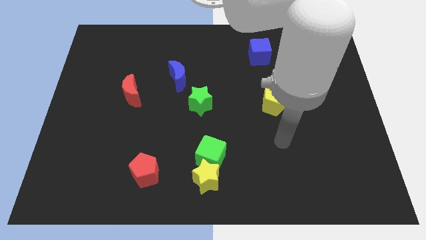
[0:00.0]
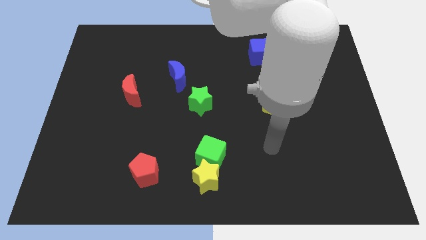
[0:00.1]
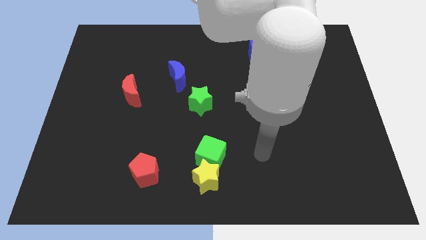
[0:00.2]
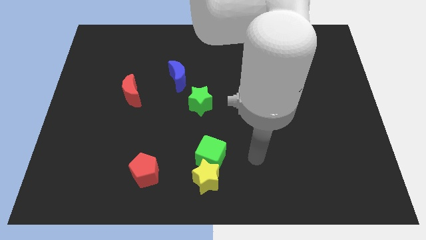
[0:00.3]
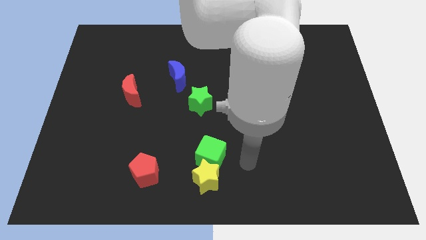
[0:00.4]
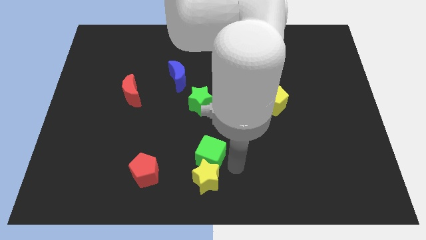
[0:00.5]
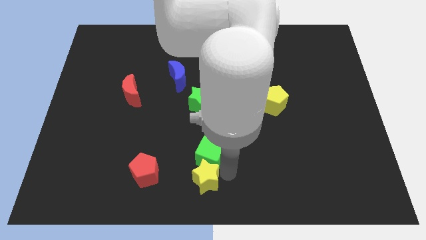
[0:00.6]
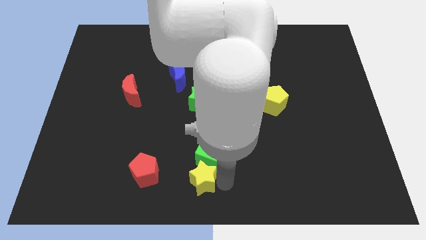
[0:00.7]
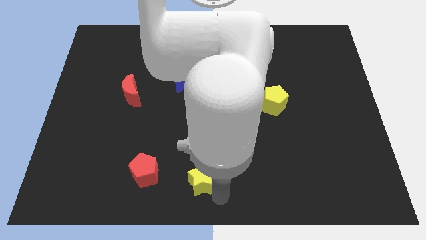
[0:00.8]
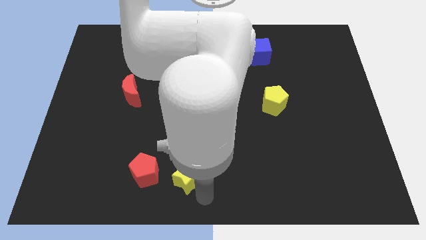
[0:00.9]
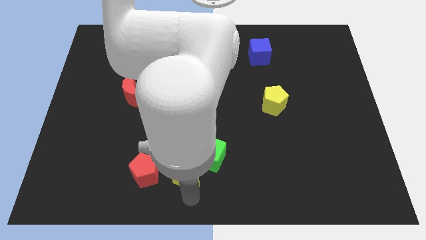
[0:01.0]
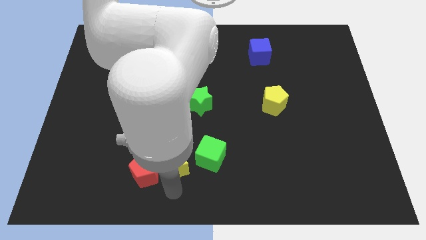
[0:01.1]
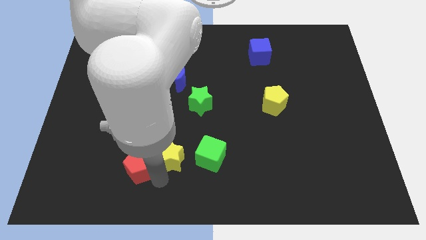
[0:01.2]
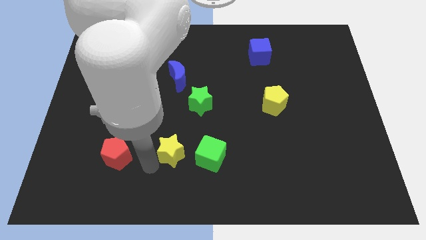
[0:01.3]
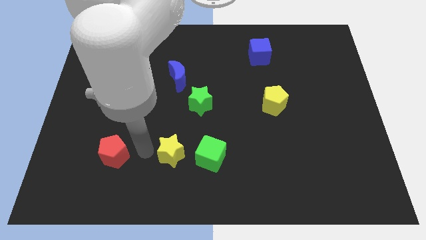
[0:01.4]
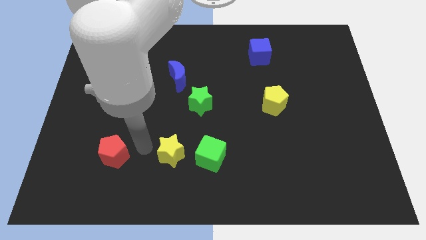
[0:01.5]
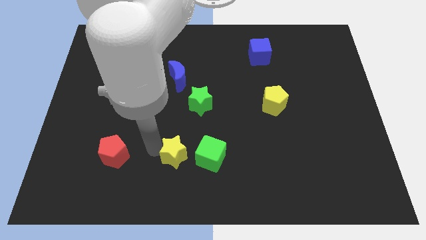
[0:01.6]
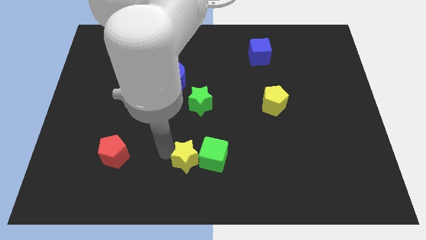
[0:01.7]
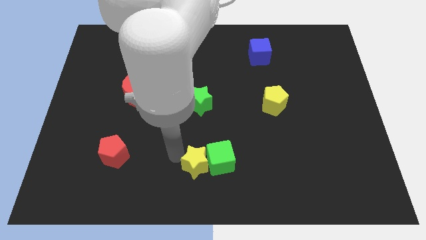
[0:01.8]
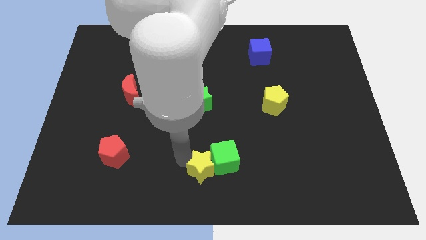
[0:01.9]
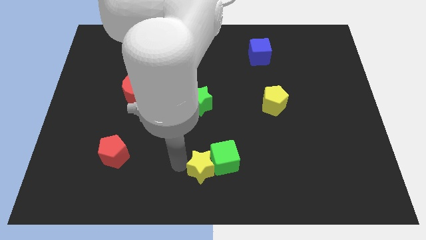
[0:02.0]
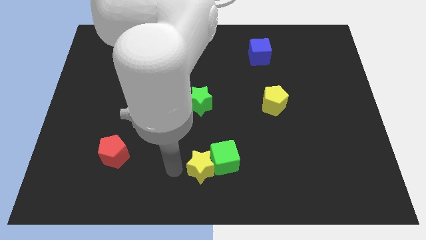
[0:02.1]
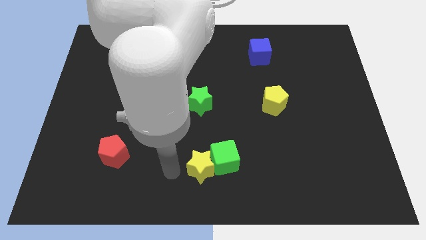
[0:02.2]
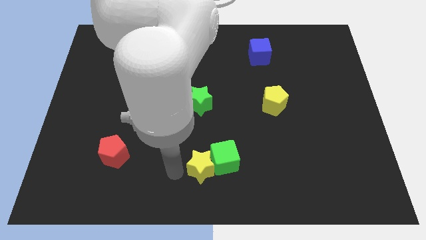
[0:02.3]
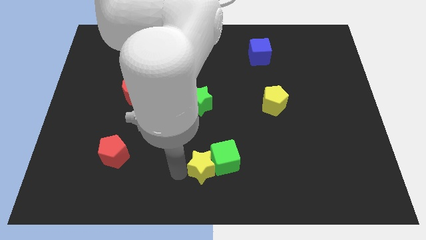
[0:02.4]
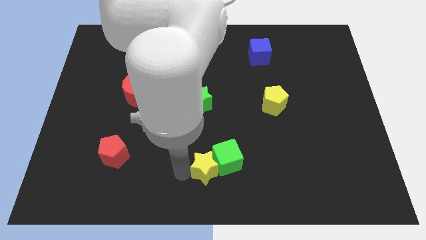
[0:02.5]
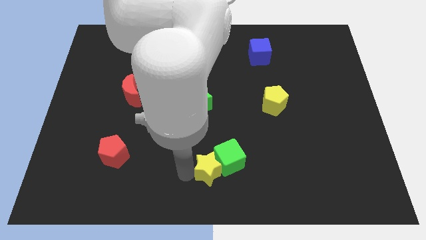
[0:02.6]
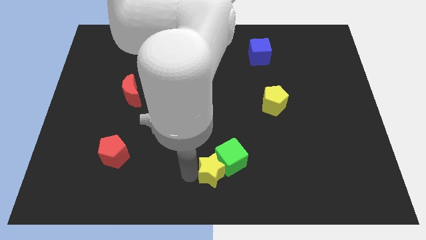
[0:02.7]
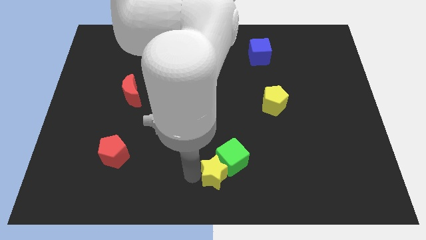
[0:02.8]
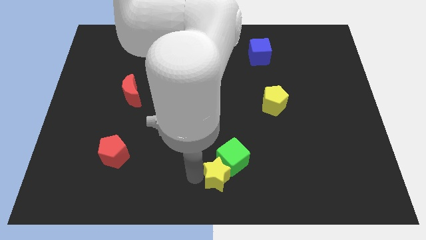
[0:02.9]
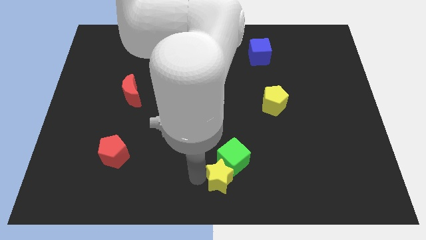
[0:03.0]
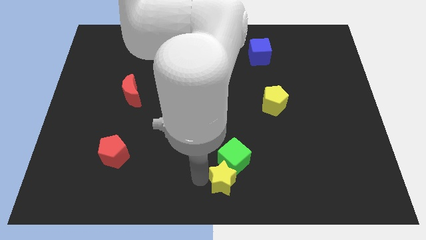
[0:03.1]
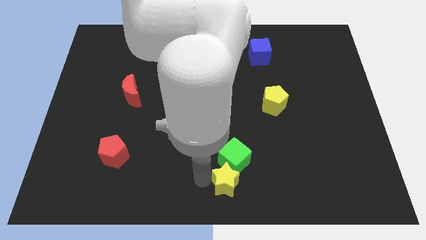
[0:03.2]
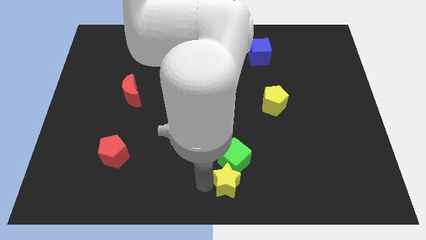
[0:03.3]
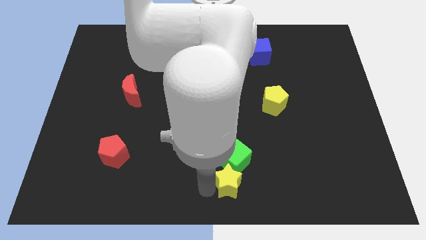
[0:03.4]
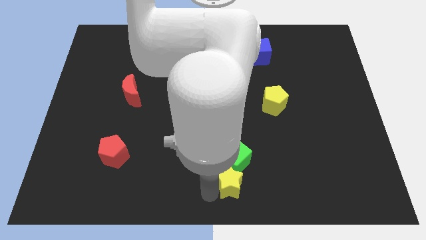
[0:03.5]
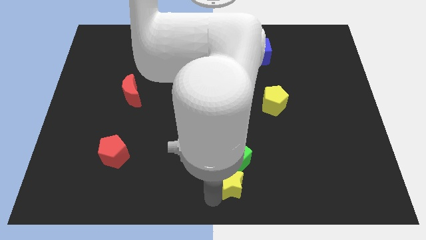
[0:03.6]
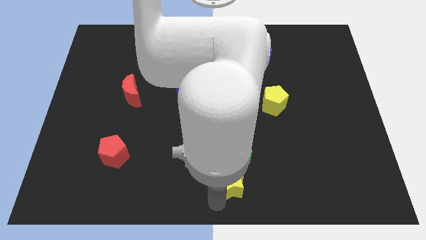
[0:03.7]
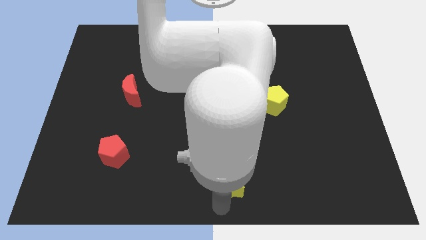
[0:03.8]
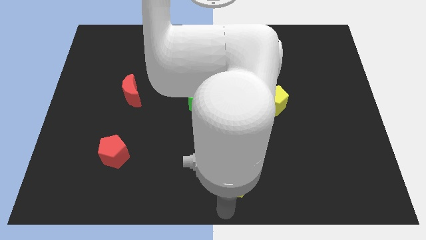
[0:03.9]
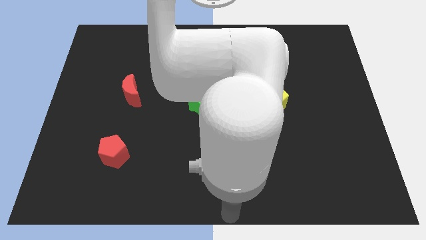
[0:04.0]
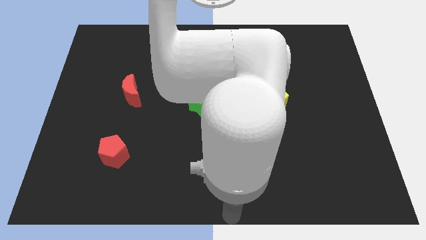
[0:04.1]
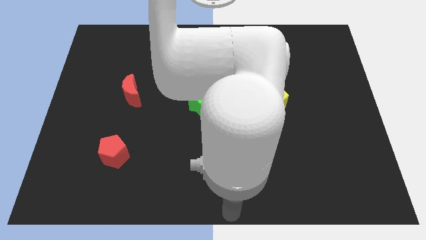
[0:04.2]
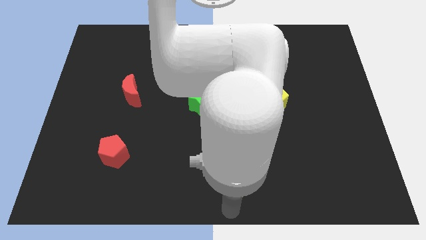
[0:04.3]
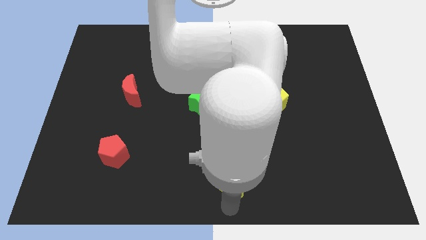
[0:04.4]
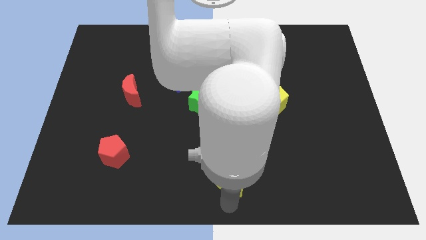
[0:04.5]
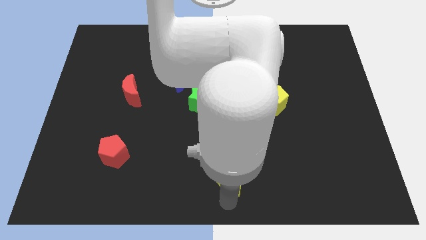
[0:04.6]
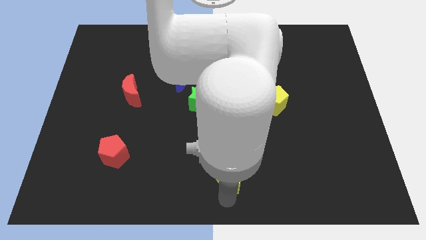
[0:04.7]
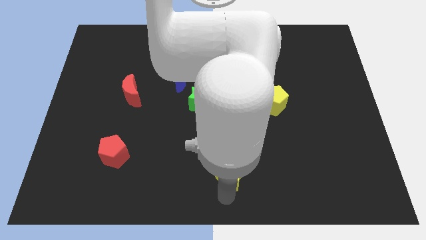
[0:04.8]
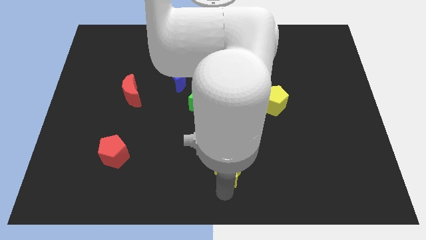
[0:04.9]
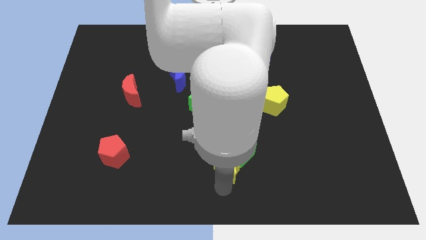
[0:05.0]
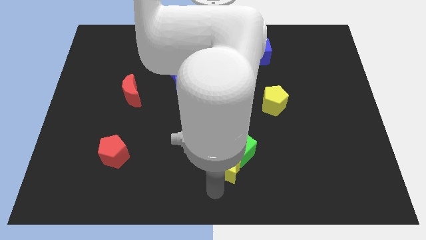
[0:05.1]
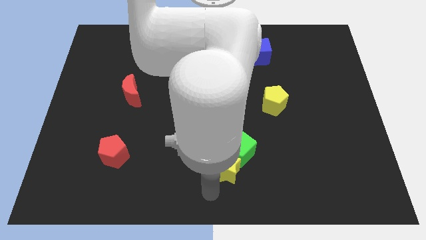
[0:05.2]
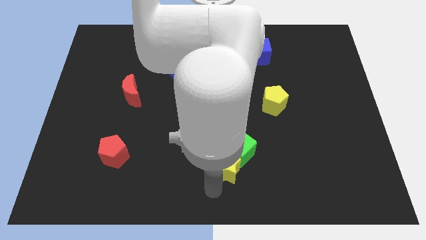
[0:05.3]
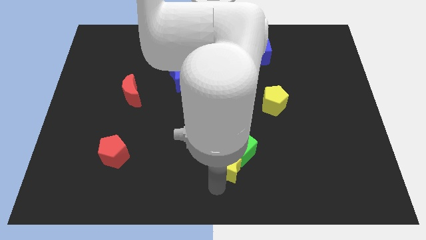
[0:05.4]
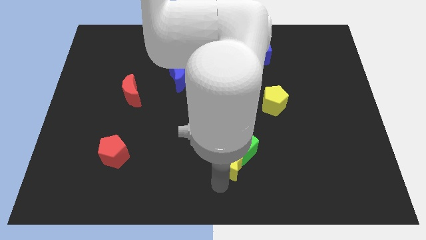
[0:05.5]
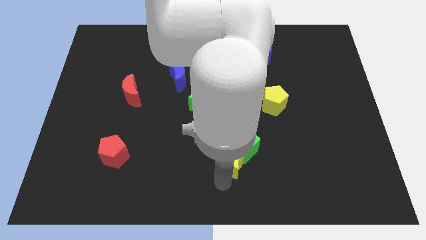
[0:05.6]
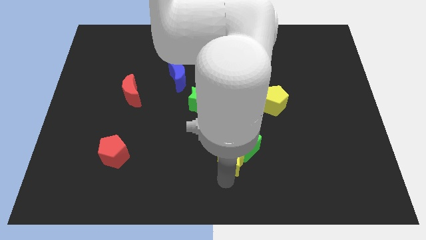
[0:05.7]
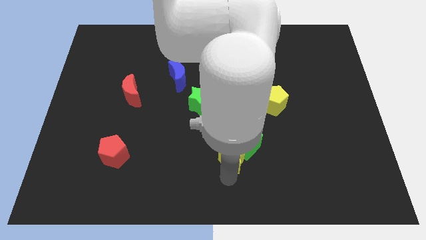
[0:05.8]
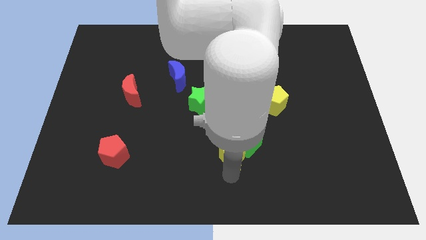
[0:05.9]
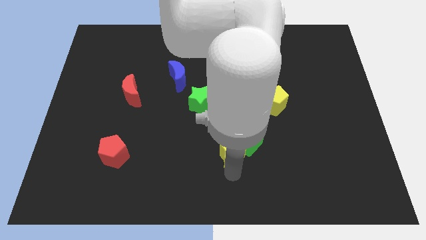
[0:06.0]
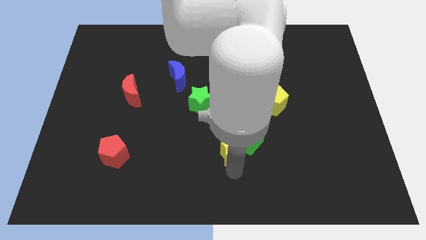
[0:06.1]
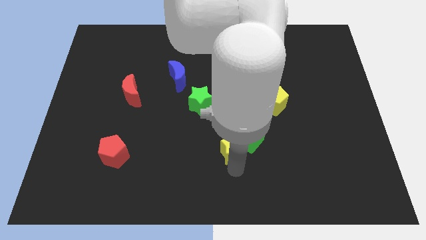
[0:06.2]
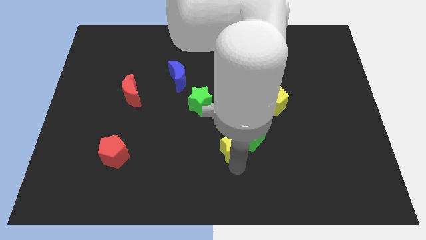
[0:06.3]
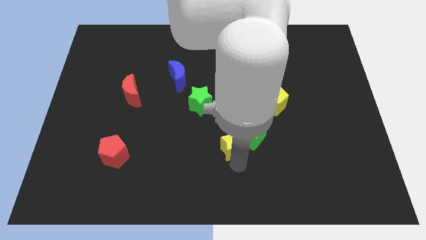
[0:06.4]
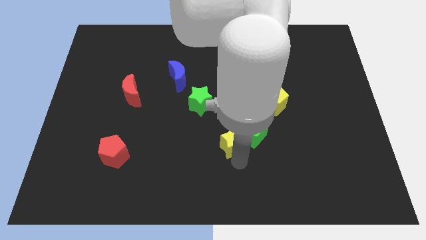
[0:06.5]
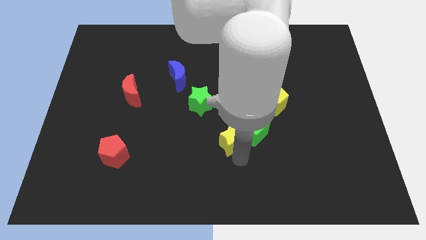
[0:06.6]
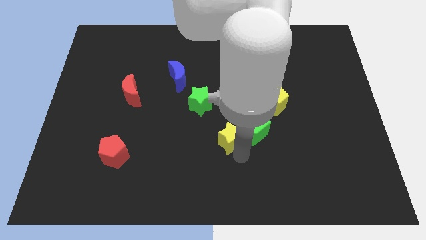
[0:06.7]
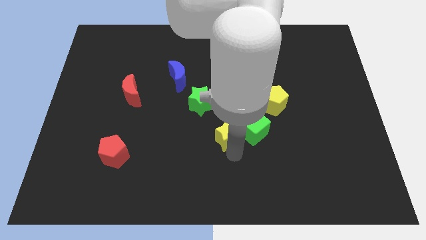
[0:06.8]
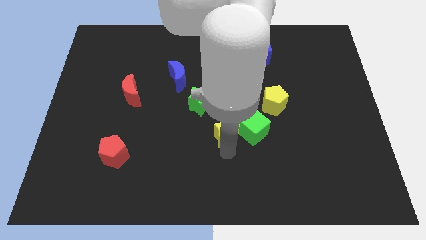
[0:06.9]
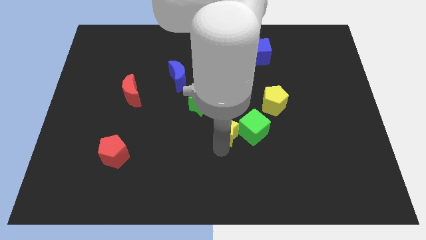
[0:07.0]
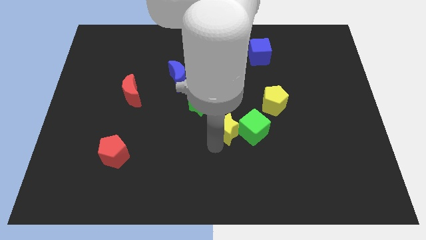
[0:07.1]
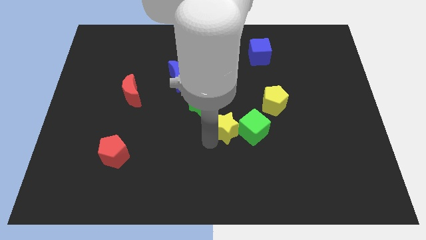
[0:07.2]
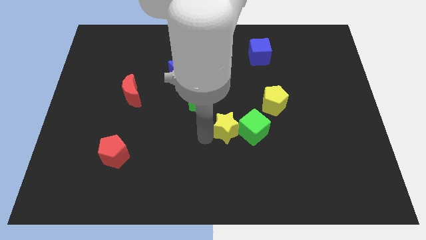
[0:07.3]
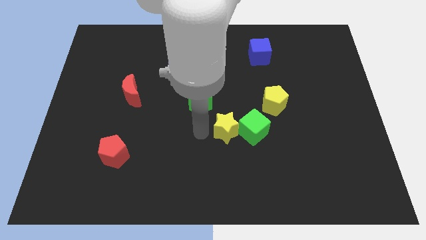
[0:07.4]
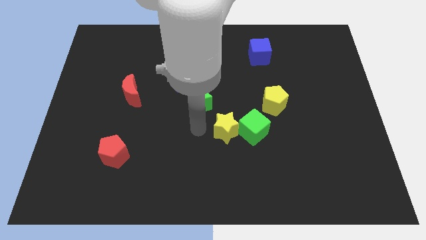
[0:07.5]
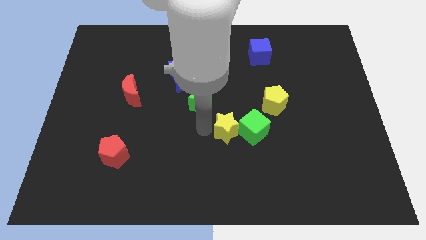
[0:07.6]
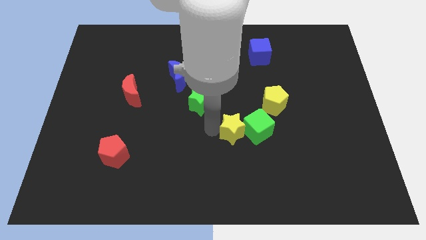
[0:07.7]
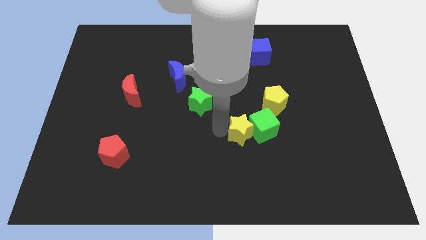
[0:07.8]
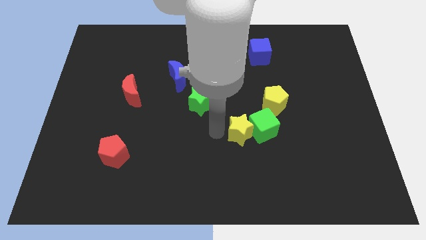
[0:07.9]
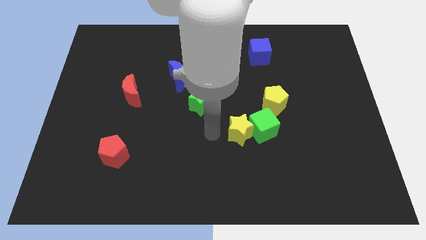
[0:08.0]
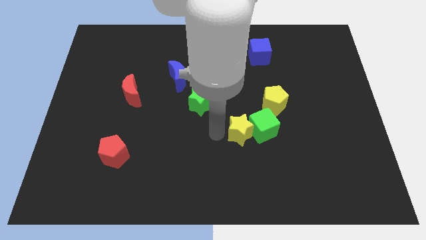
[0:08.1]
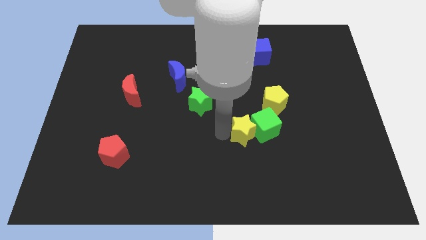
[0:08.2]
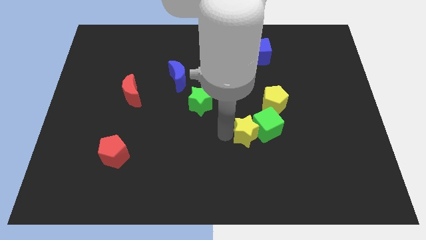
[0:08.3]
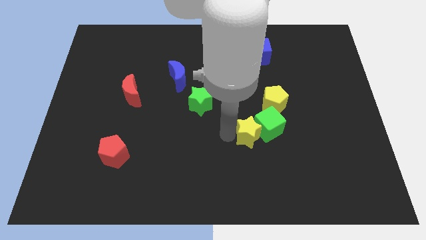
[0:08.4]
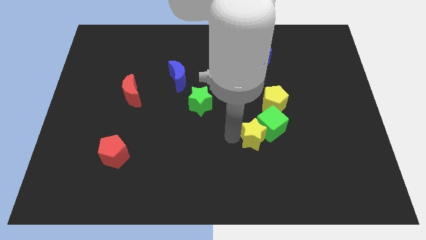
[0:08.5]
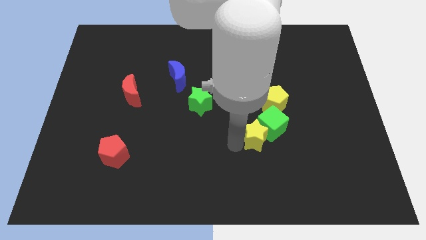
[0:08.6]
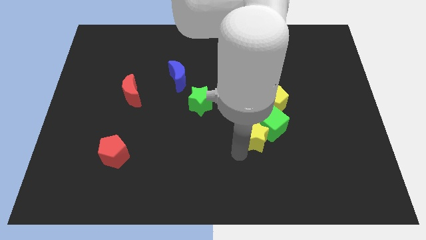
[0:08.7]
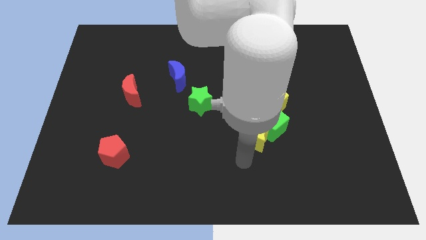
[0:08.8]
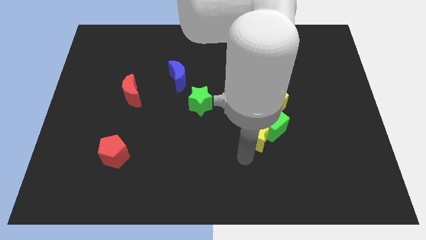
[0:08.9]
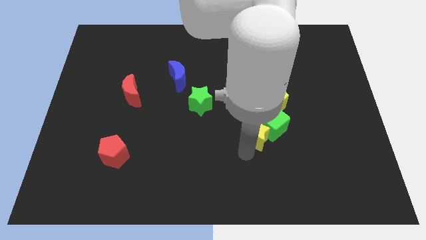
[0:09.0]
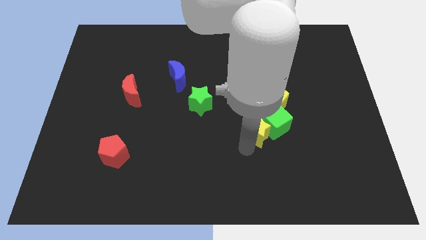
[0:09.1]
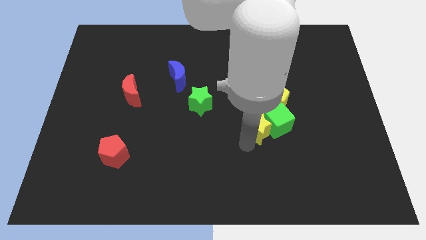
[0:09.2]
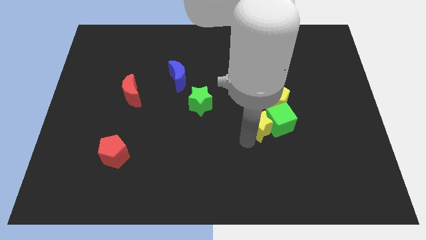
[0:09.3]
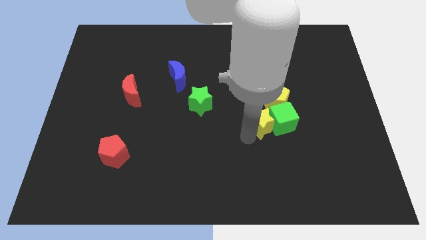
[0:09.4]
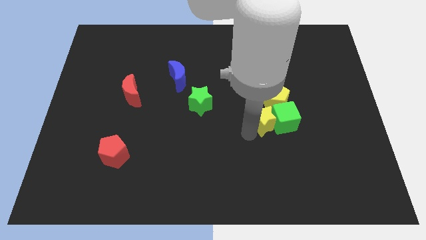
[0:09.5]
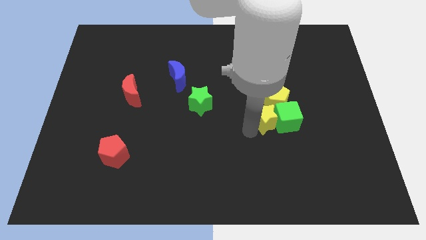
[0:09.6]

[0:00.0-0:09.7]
slide the yellow star next to the yellow pentagon
